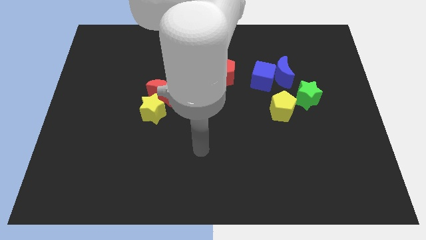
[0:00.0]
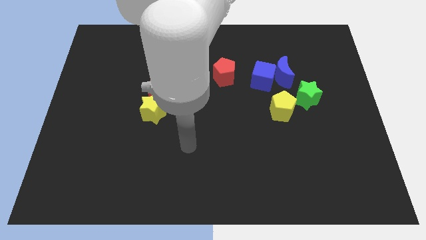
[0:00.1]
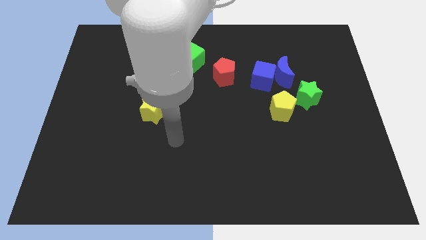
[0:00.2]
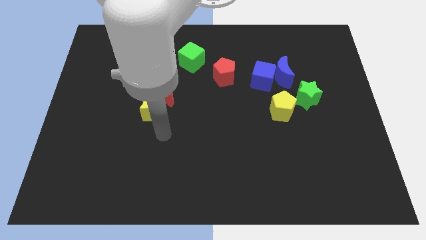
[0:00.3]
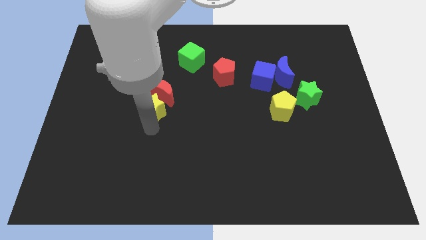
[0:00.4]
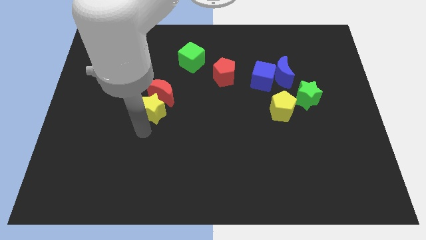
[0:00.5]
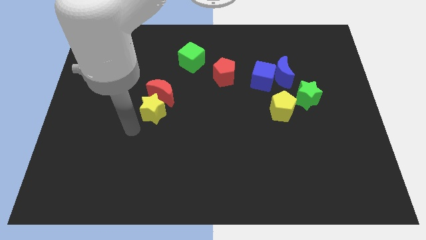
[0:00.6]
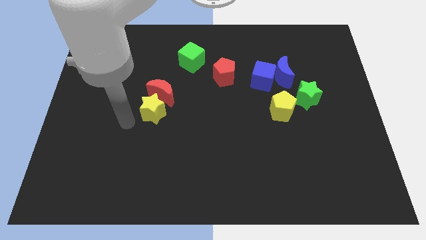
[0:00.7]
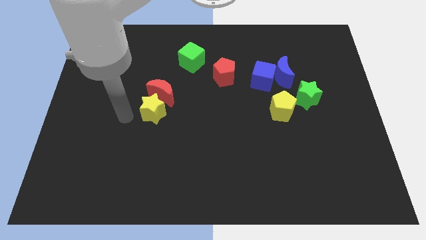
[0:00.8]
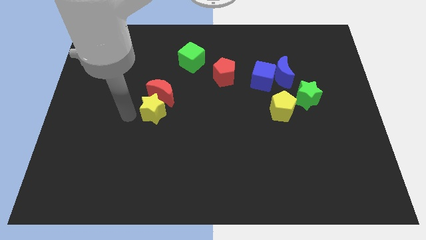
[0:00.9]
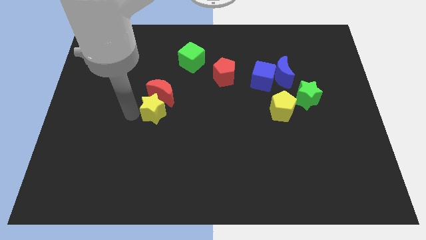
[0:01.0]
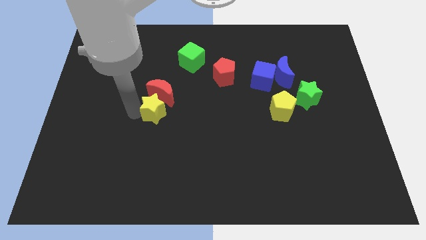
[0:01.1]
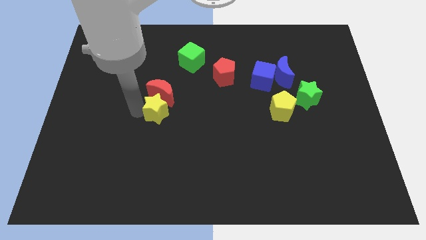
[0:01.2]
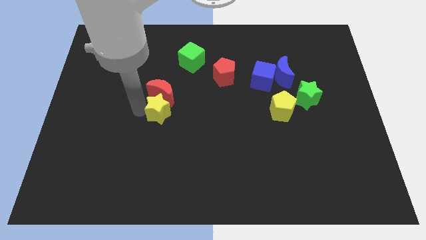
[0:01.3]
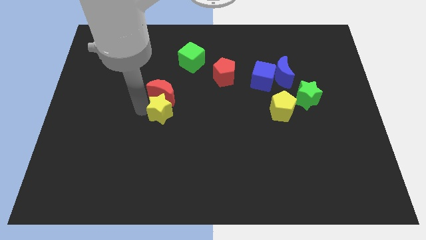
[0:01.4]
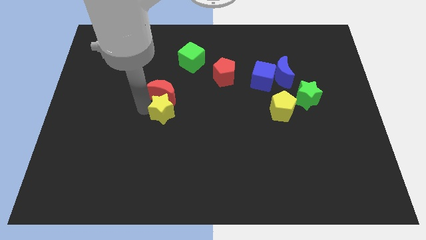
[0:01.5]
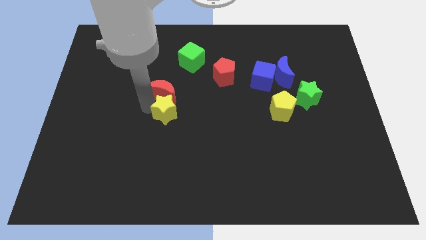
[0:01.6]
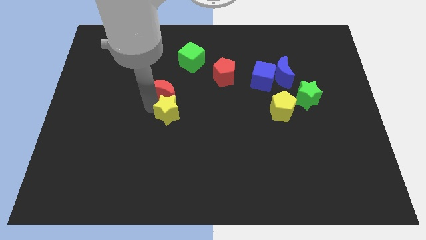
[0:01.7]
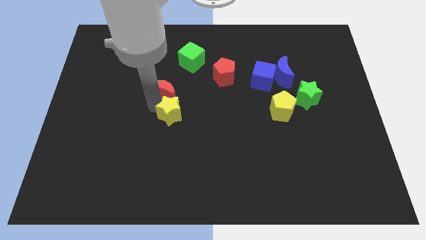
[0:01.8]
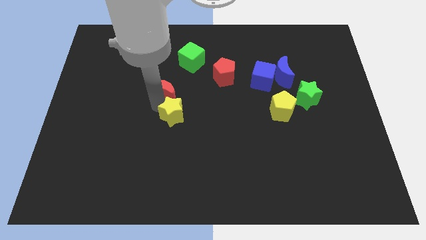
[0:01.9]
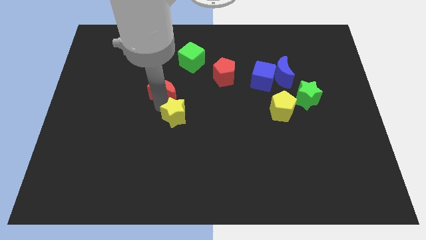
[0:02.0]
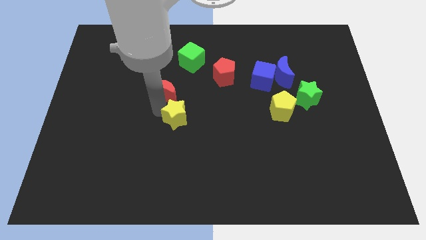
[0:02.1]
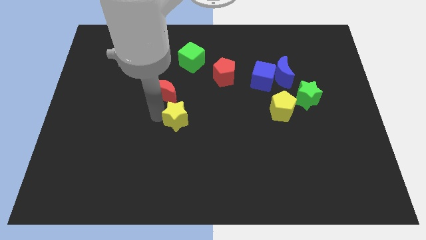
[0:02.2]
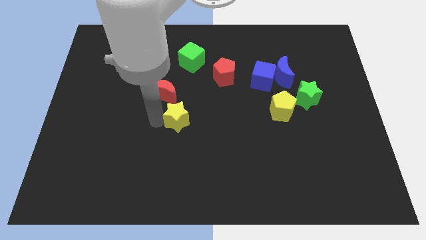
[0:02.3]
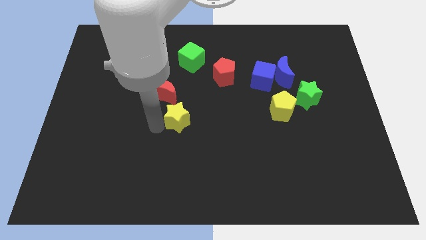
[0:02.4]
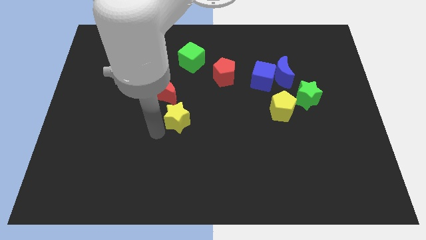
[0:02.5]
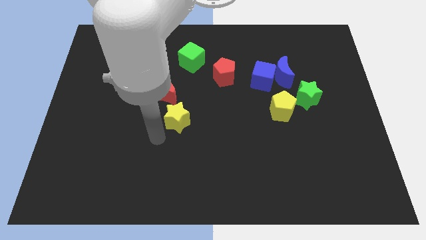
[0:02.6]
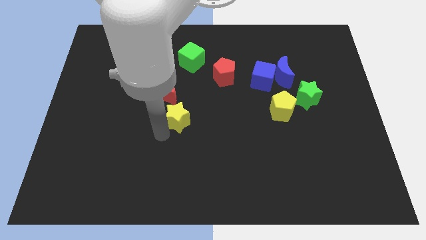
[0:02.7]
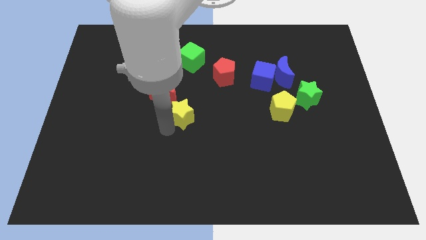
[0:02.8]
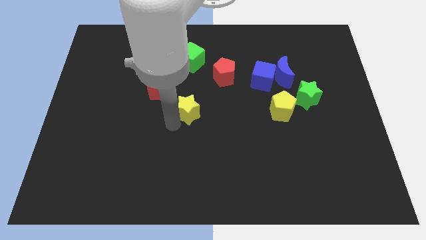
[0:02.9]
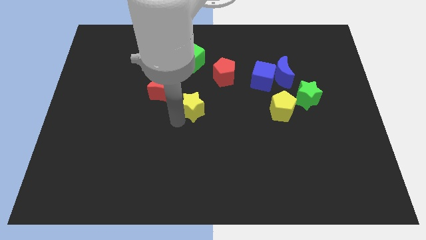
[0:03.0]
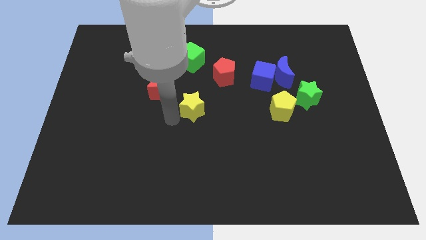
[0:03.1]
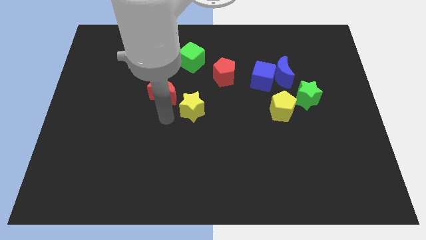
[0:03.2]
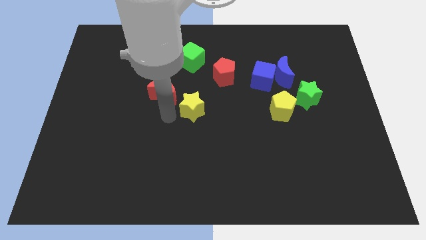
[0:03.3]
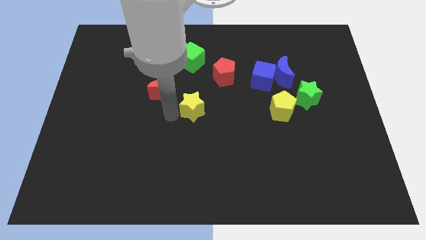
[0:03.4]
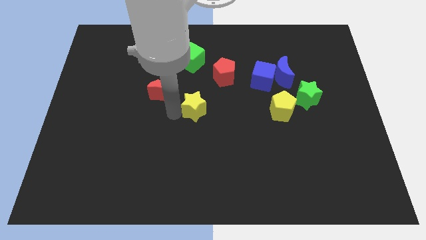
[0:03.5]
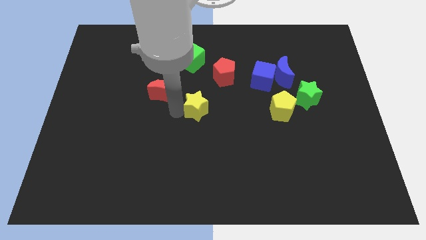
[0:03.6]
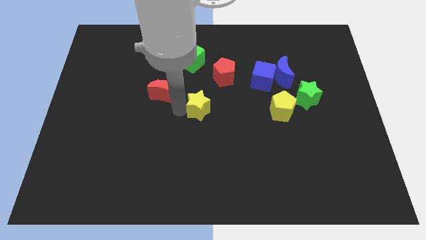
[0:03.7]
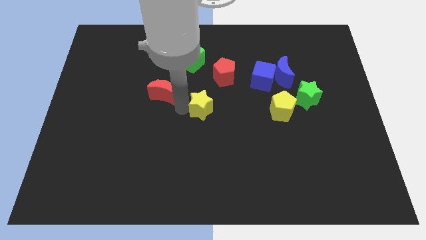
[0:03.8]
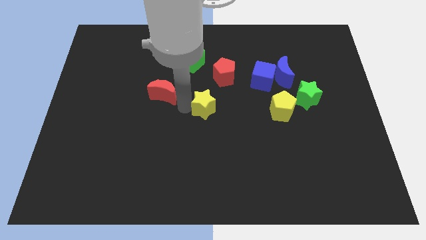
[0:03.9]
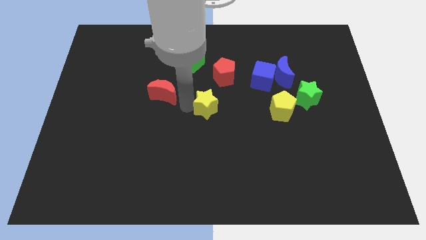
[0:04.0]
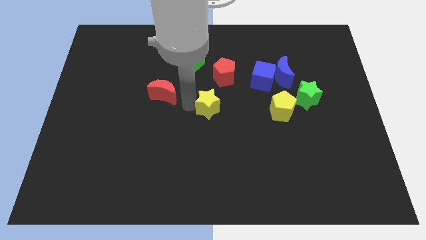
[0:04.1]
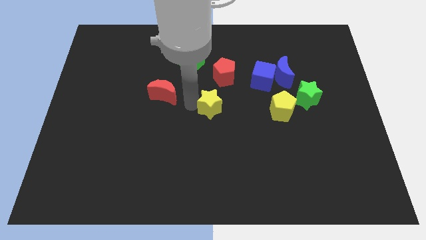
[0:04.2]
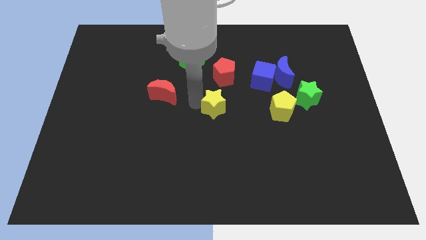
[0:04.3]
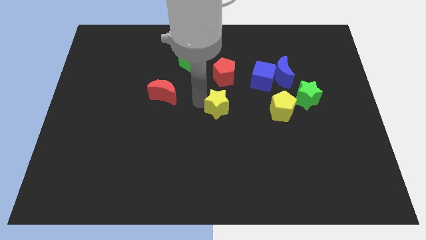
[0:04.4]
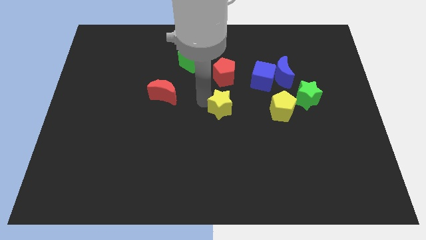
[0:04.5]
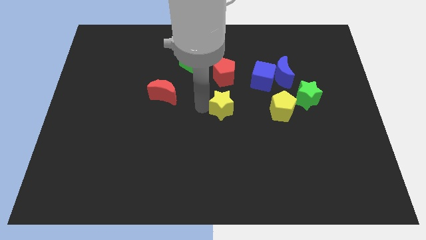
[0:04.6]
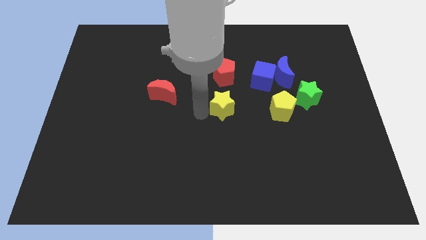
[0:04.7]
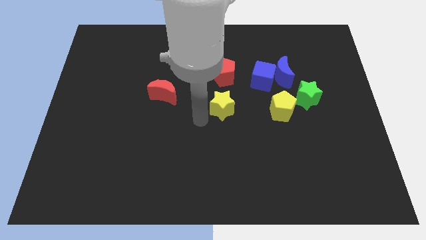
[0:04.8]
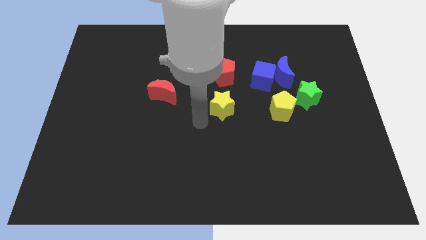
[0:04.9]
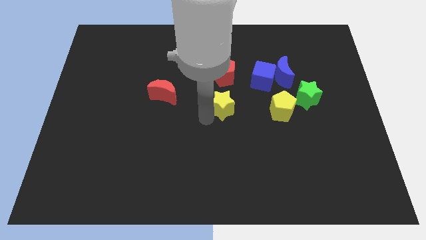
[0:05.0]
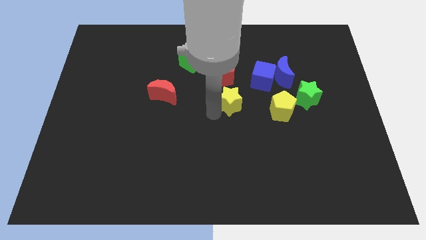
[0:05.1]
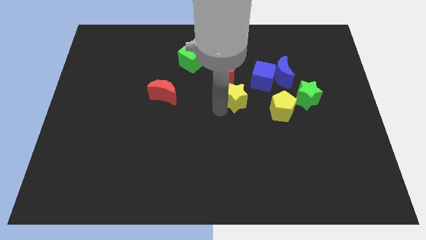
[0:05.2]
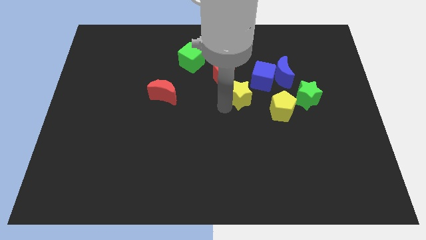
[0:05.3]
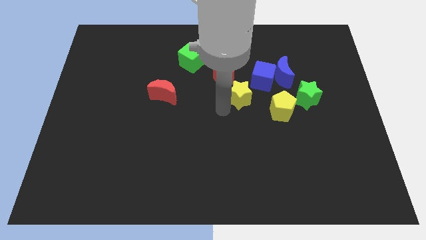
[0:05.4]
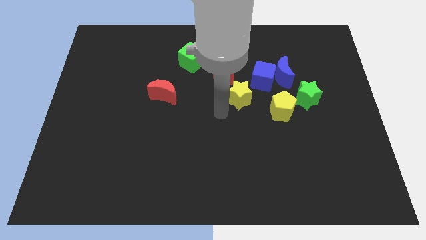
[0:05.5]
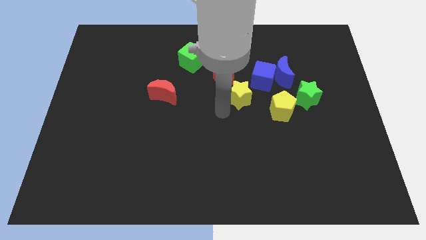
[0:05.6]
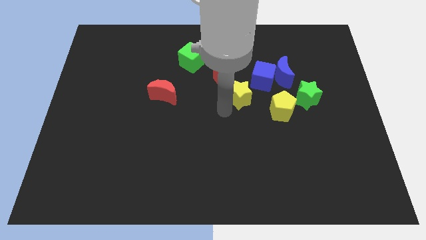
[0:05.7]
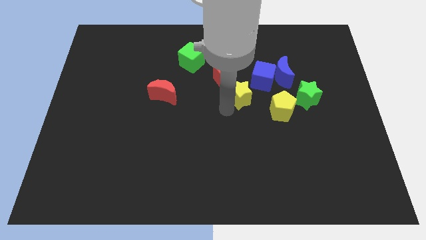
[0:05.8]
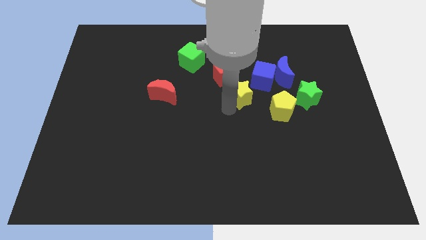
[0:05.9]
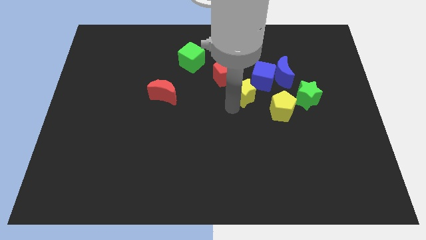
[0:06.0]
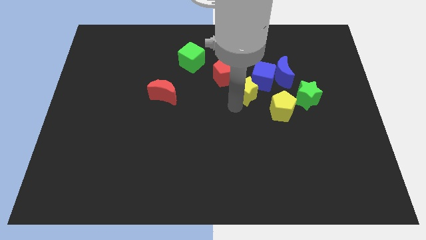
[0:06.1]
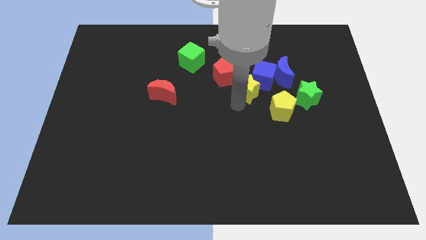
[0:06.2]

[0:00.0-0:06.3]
move the yellow star close to the blue cube
